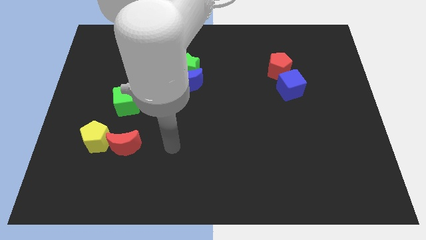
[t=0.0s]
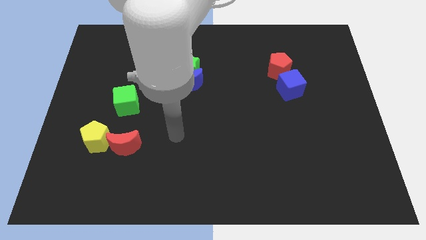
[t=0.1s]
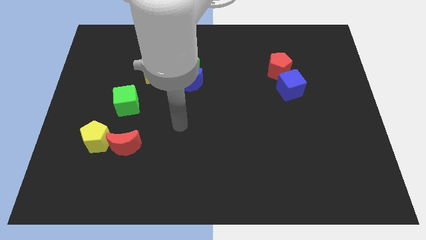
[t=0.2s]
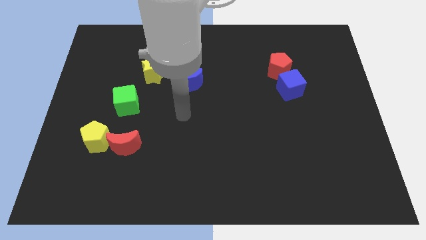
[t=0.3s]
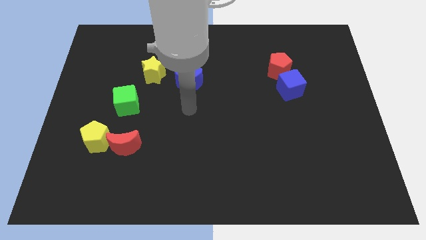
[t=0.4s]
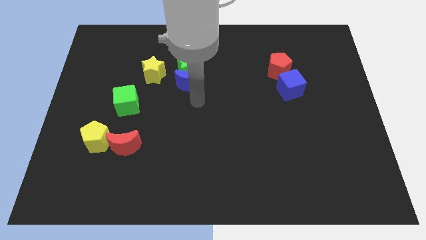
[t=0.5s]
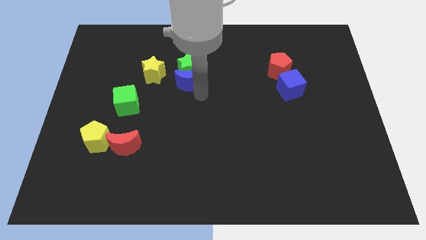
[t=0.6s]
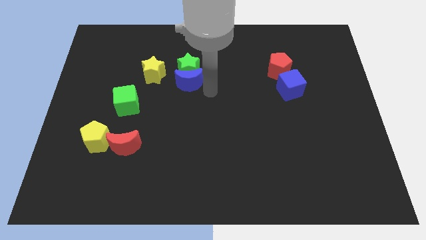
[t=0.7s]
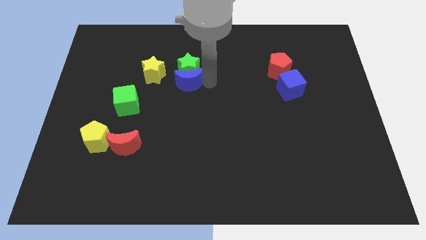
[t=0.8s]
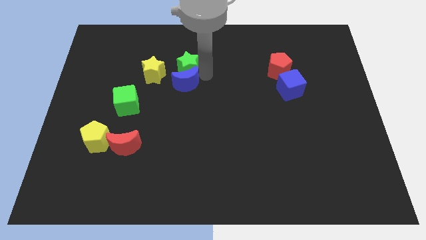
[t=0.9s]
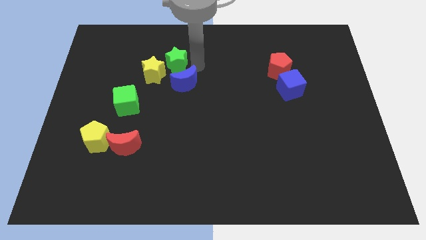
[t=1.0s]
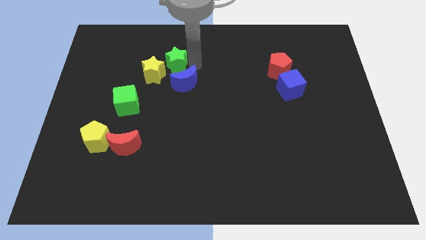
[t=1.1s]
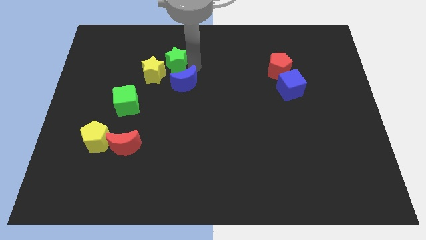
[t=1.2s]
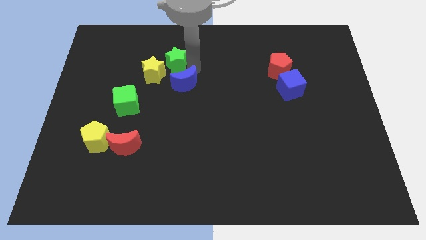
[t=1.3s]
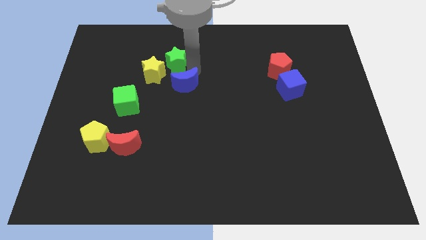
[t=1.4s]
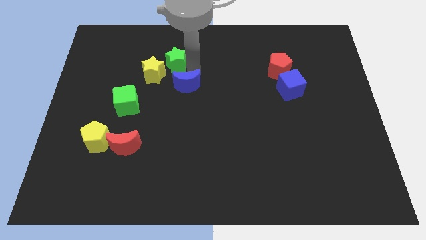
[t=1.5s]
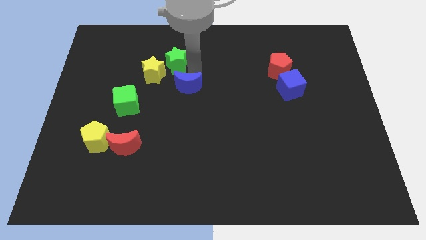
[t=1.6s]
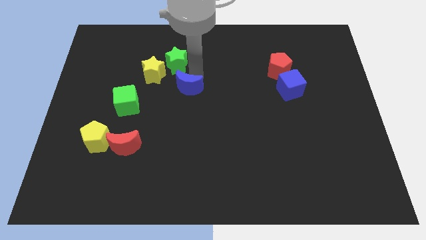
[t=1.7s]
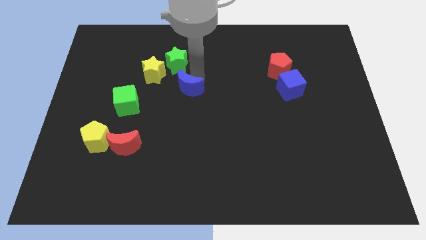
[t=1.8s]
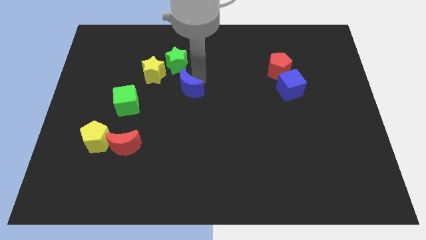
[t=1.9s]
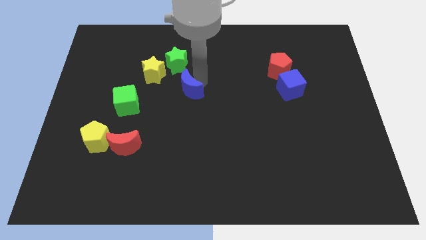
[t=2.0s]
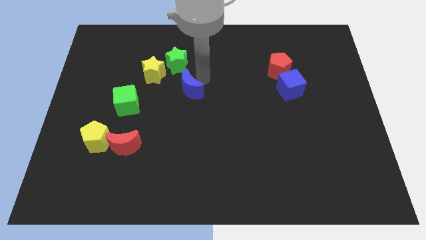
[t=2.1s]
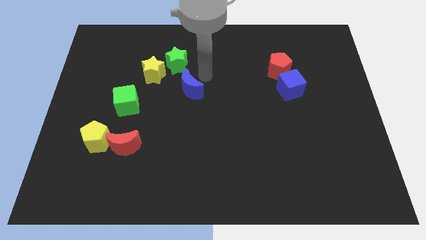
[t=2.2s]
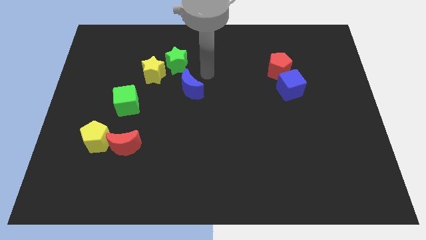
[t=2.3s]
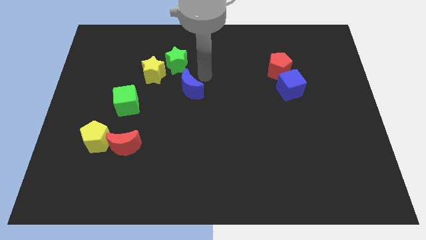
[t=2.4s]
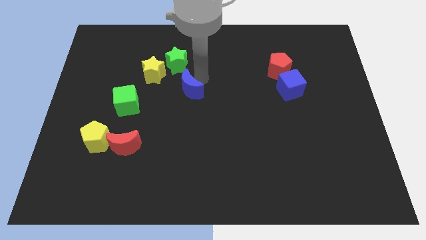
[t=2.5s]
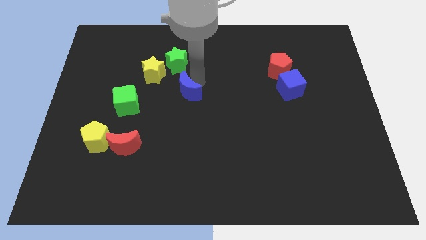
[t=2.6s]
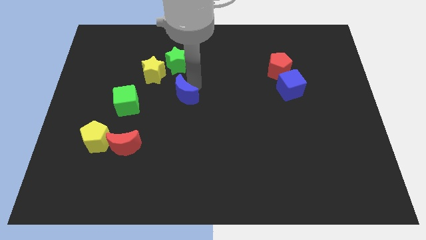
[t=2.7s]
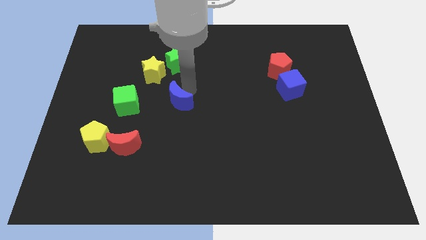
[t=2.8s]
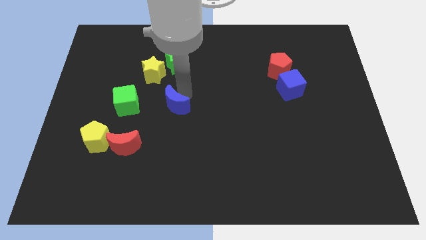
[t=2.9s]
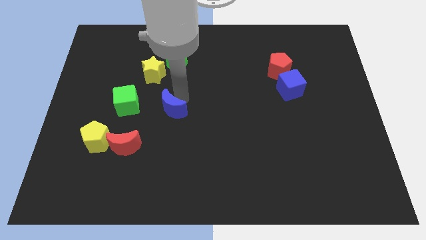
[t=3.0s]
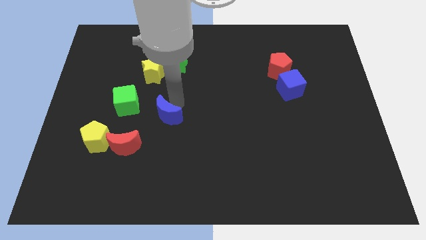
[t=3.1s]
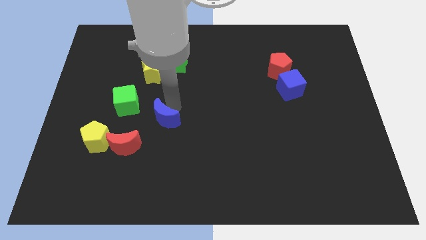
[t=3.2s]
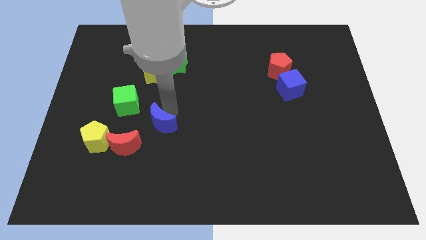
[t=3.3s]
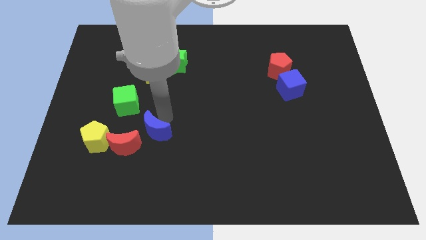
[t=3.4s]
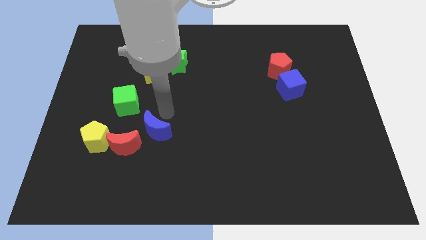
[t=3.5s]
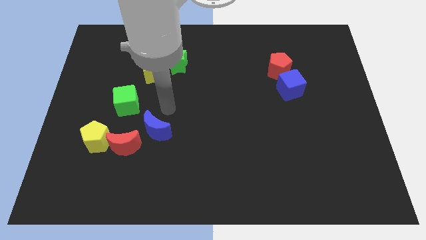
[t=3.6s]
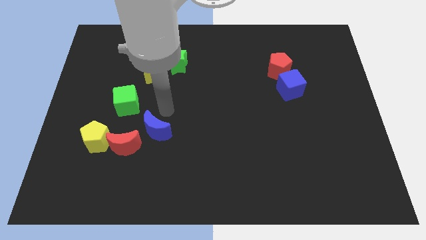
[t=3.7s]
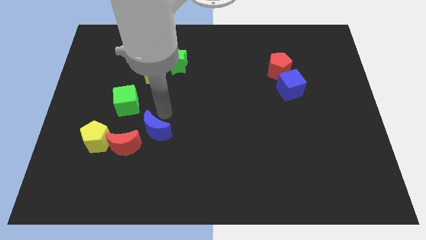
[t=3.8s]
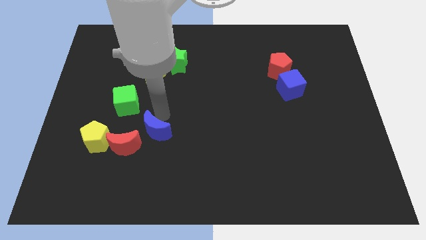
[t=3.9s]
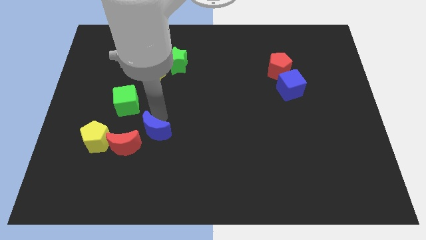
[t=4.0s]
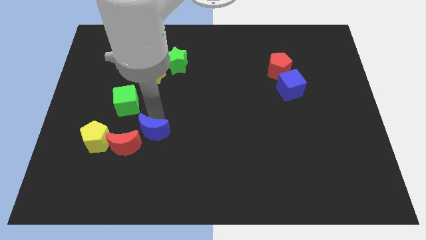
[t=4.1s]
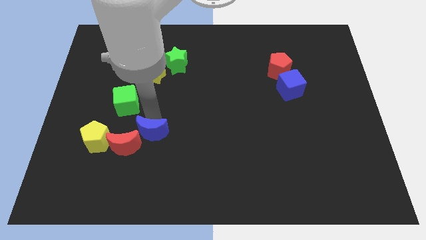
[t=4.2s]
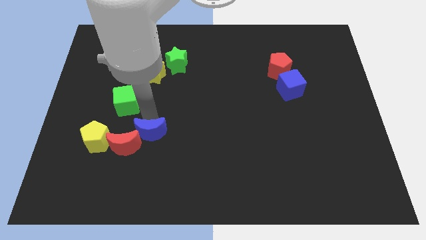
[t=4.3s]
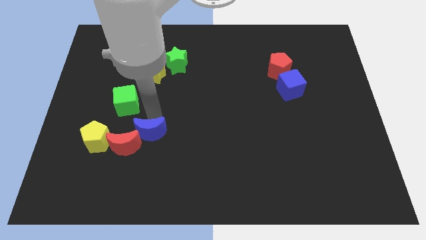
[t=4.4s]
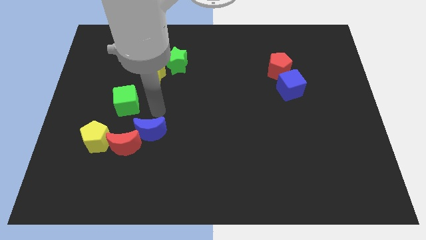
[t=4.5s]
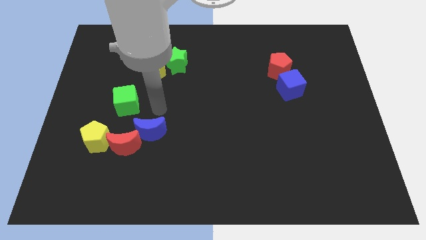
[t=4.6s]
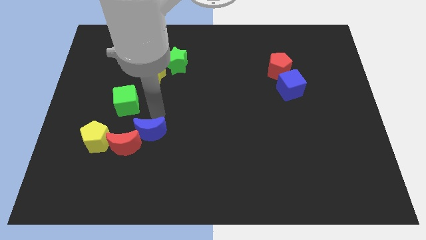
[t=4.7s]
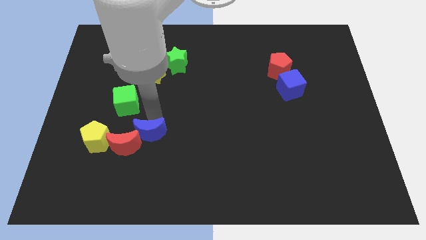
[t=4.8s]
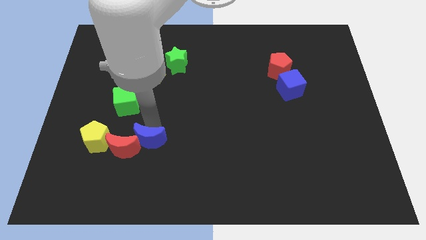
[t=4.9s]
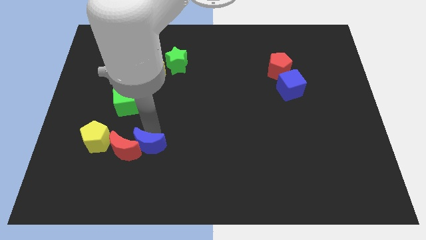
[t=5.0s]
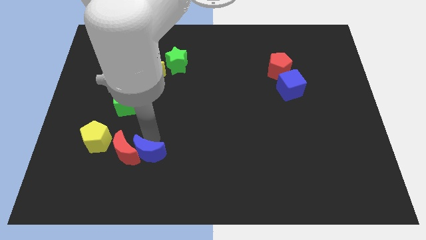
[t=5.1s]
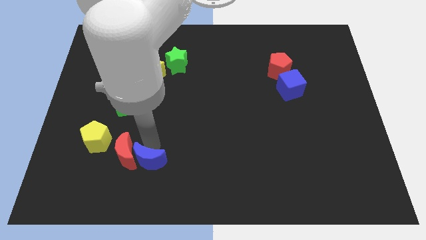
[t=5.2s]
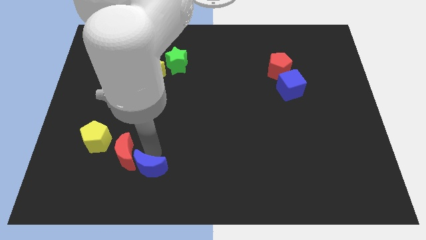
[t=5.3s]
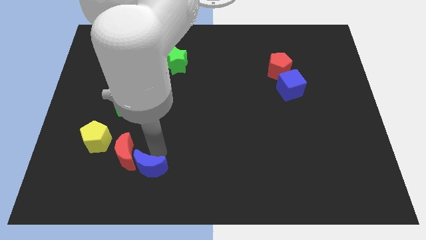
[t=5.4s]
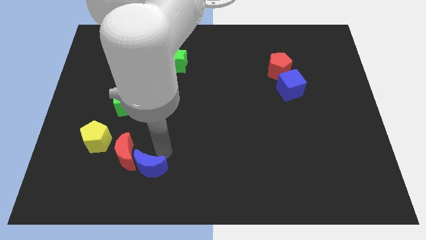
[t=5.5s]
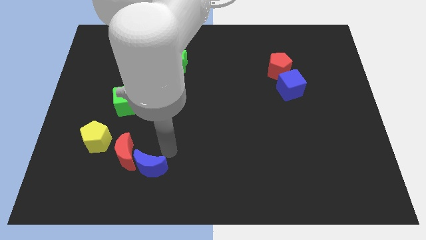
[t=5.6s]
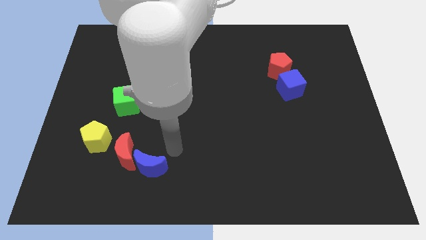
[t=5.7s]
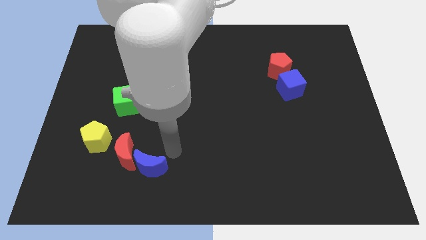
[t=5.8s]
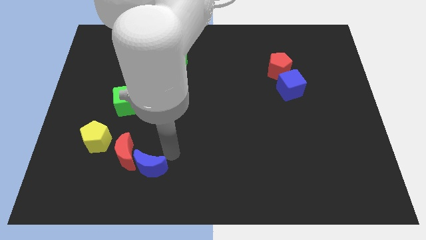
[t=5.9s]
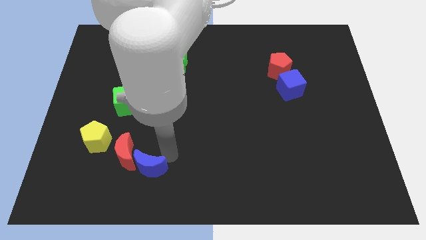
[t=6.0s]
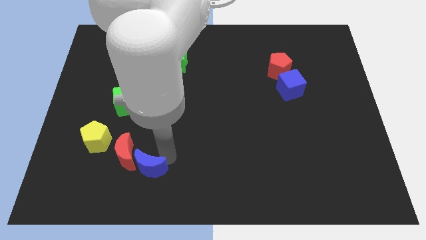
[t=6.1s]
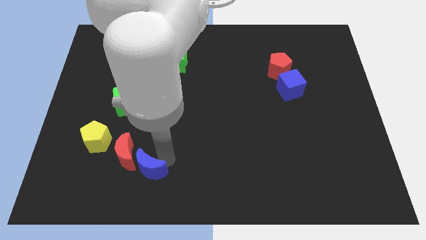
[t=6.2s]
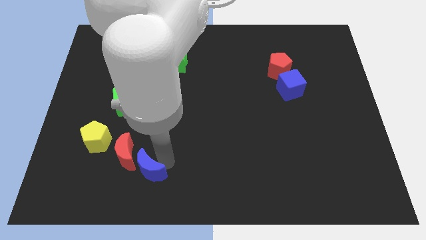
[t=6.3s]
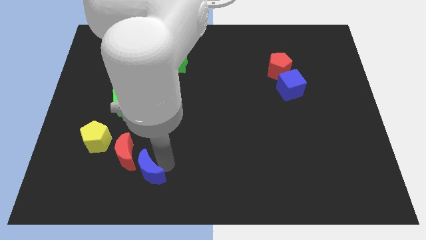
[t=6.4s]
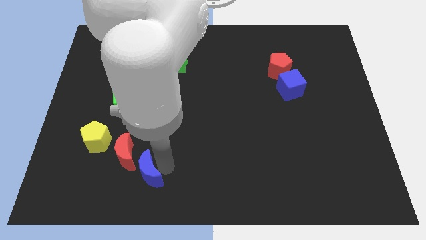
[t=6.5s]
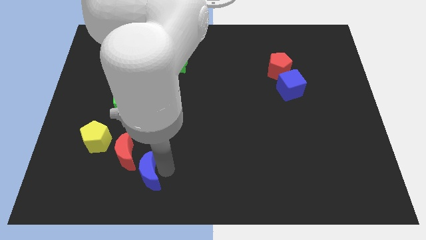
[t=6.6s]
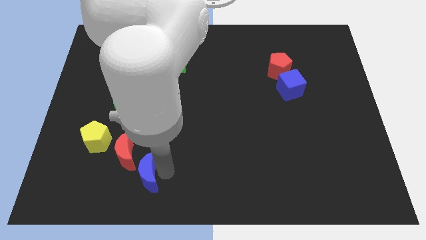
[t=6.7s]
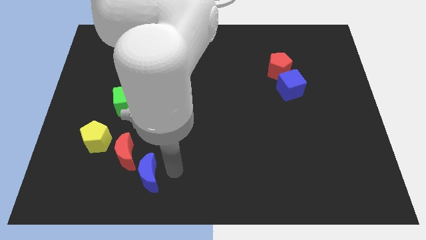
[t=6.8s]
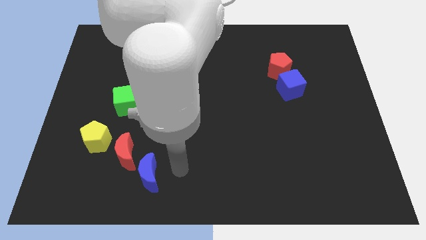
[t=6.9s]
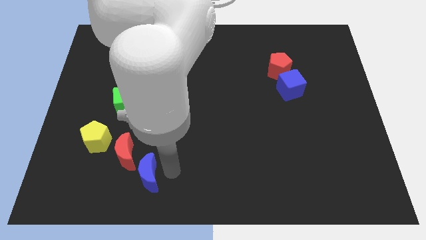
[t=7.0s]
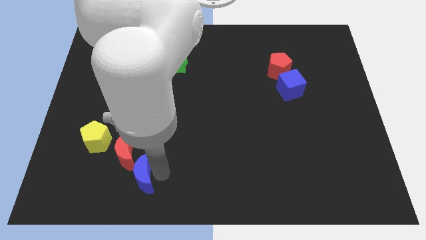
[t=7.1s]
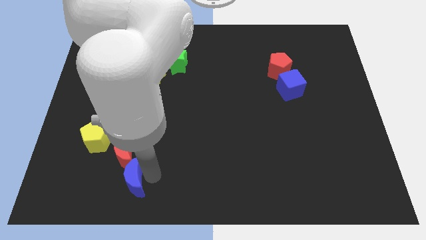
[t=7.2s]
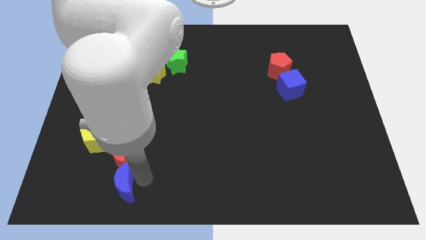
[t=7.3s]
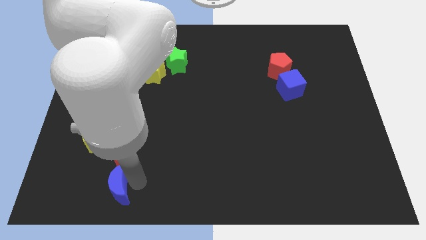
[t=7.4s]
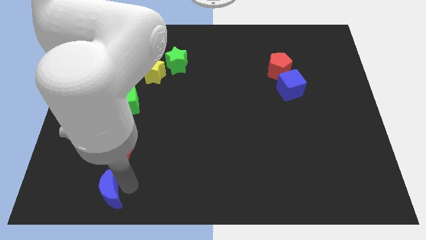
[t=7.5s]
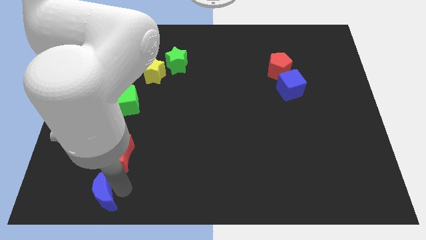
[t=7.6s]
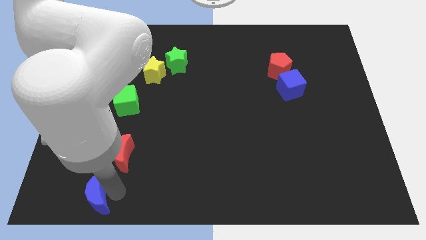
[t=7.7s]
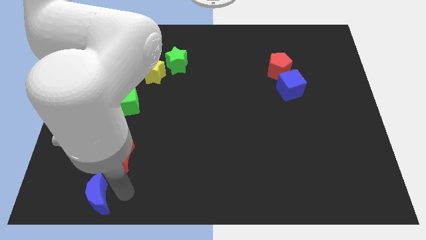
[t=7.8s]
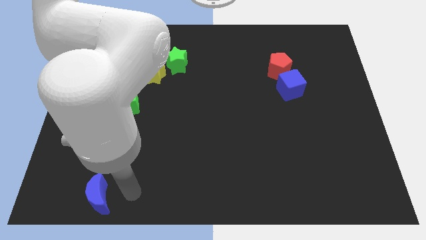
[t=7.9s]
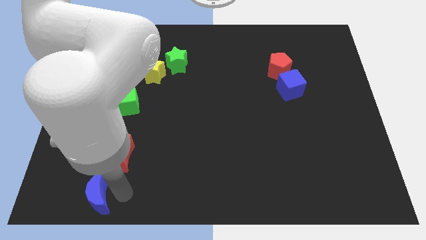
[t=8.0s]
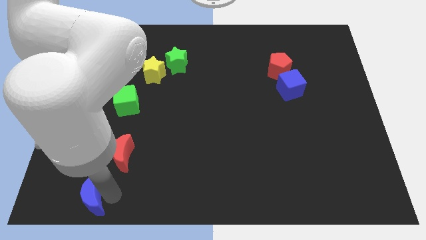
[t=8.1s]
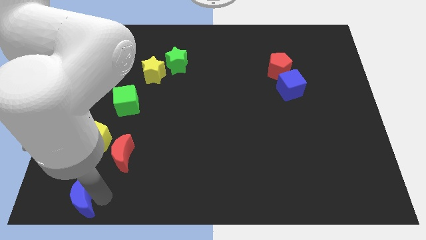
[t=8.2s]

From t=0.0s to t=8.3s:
slide the blue moon to the bottom left
